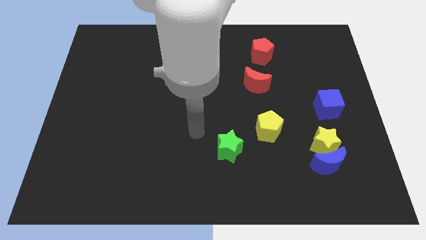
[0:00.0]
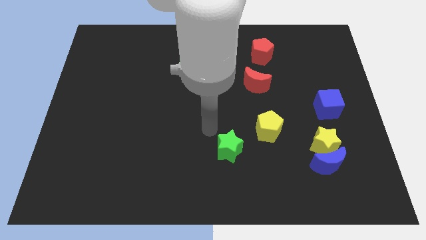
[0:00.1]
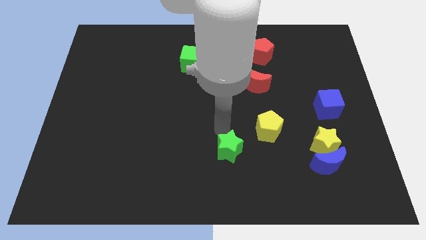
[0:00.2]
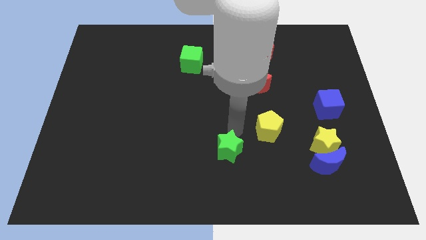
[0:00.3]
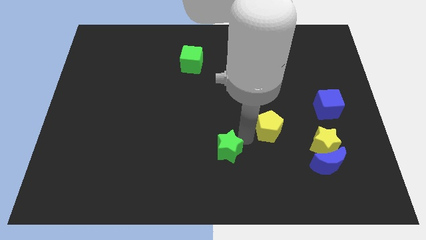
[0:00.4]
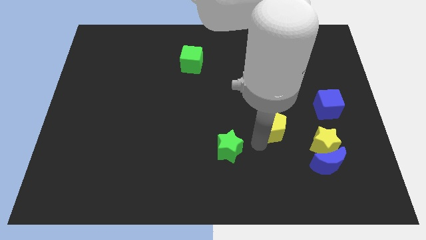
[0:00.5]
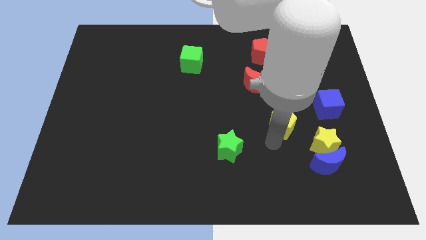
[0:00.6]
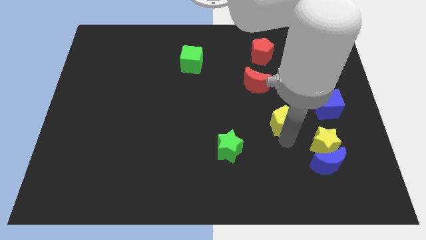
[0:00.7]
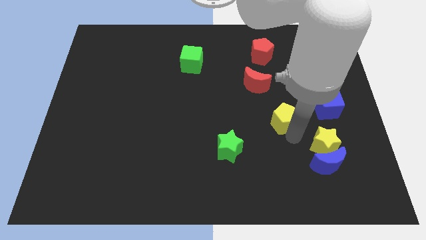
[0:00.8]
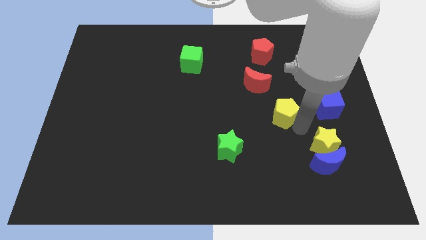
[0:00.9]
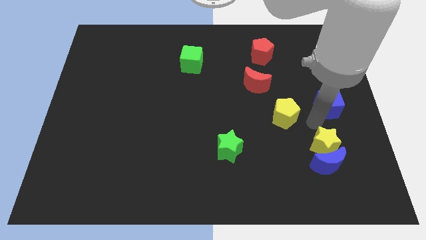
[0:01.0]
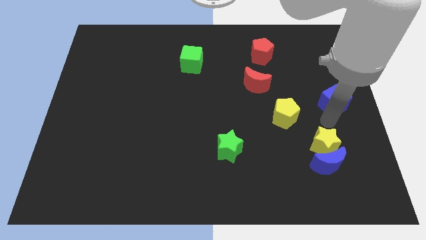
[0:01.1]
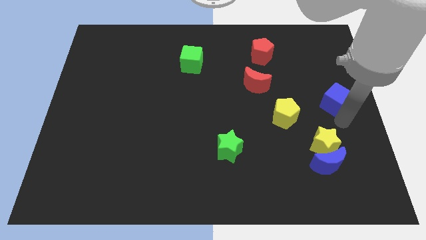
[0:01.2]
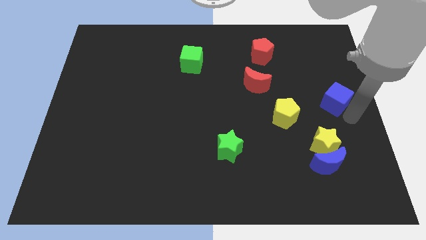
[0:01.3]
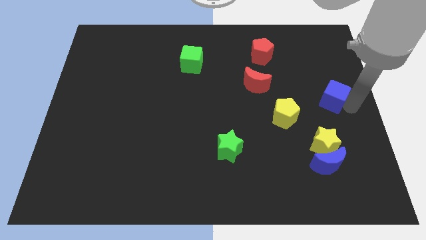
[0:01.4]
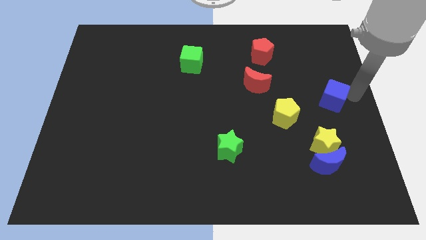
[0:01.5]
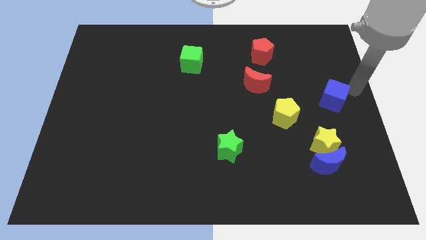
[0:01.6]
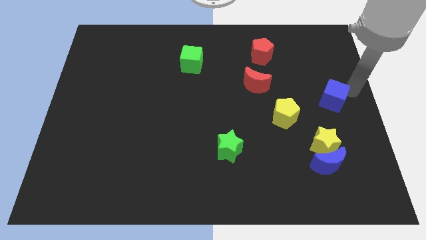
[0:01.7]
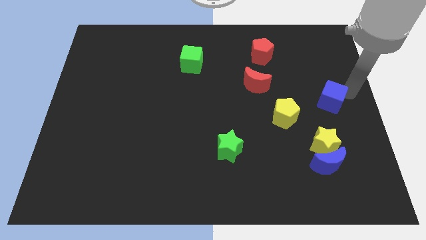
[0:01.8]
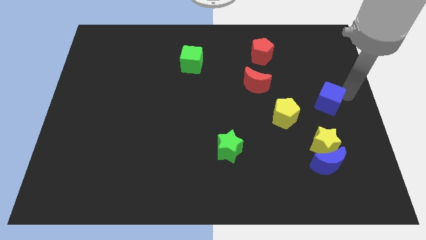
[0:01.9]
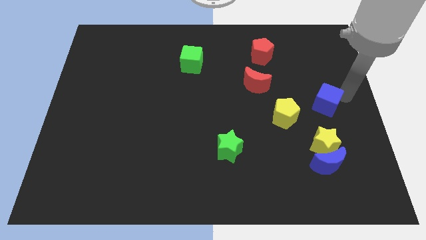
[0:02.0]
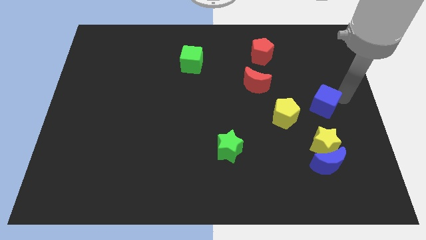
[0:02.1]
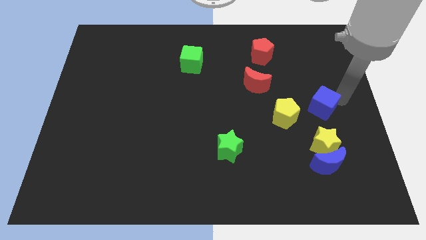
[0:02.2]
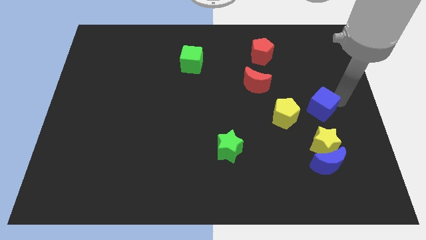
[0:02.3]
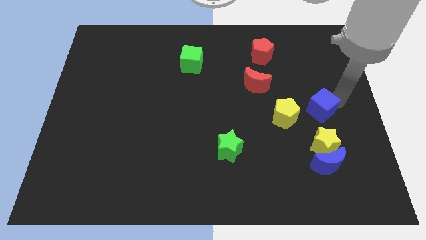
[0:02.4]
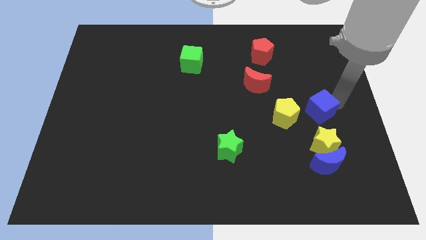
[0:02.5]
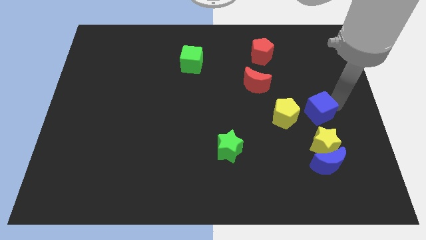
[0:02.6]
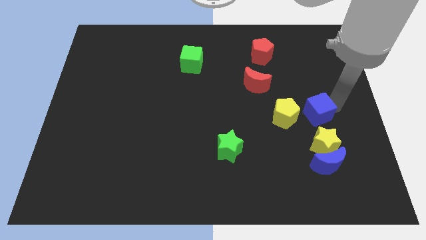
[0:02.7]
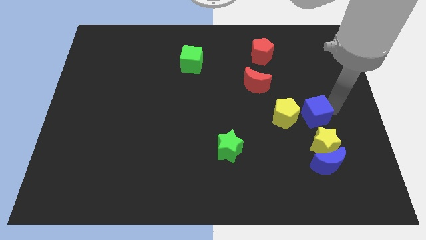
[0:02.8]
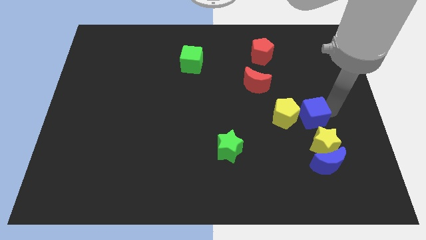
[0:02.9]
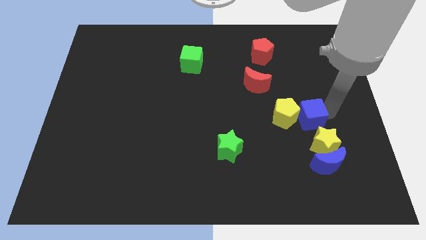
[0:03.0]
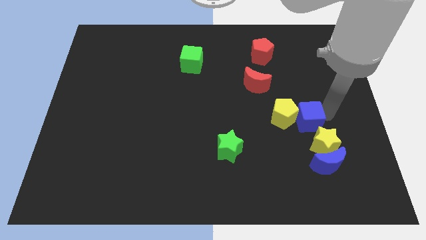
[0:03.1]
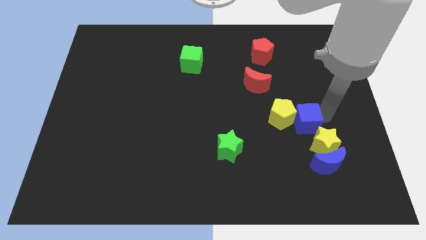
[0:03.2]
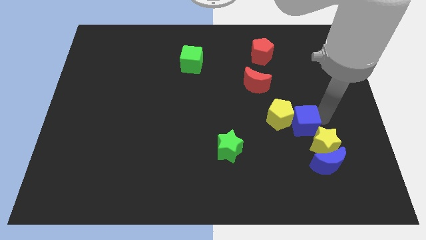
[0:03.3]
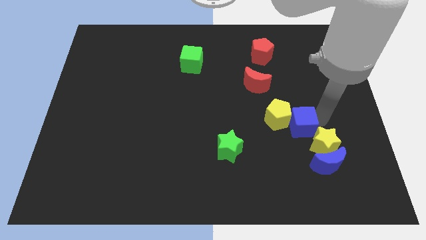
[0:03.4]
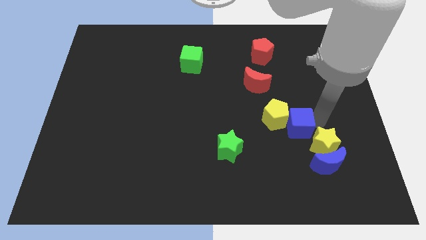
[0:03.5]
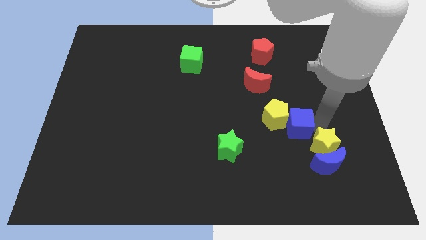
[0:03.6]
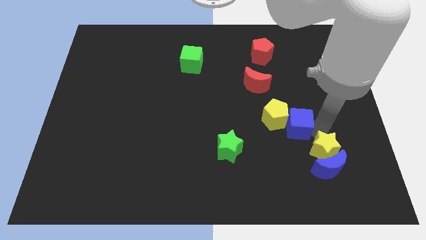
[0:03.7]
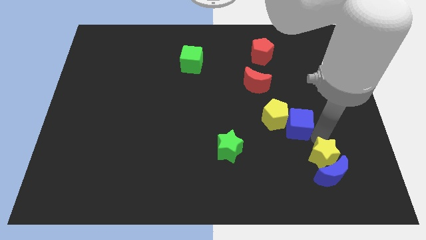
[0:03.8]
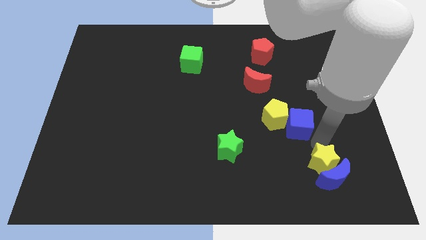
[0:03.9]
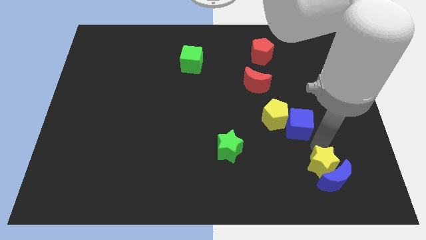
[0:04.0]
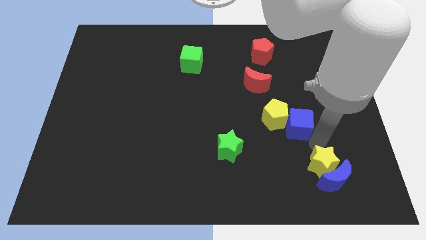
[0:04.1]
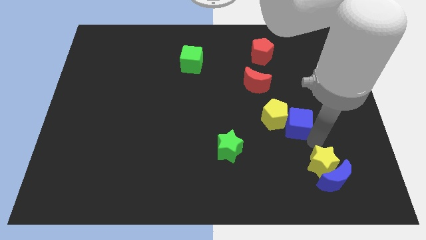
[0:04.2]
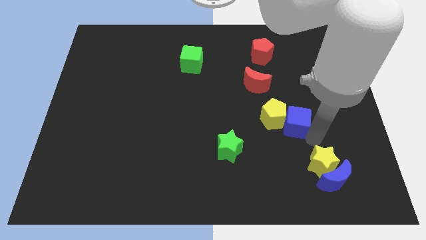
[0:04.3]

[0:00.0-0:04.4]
slide the blue cube slightly to the left

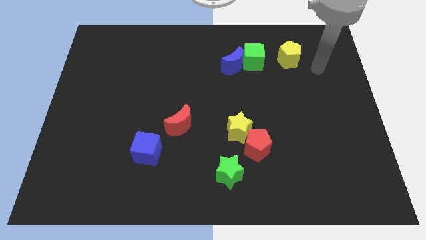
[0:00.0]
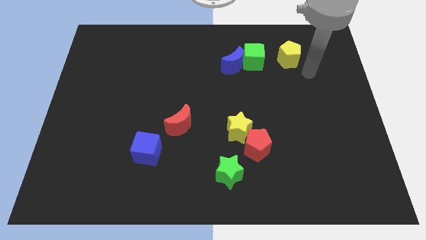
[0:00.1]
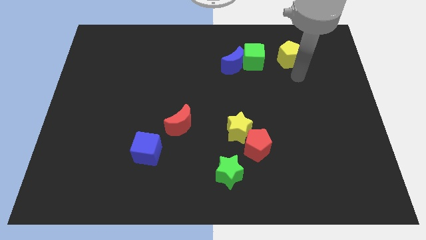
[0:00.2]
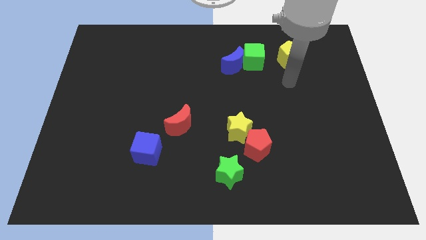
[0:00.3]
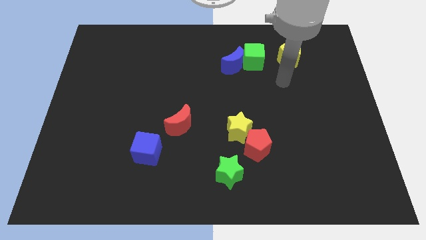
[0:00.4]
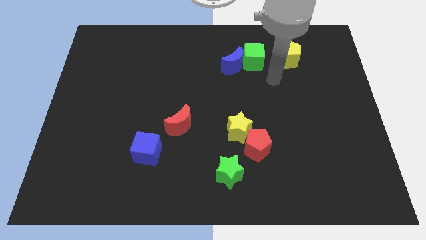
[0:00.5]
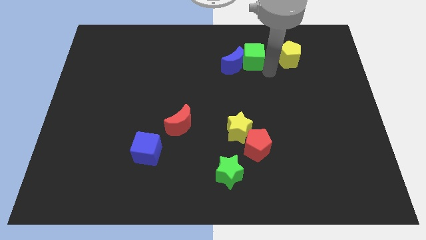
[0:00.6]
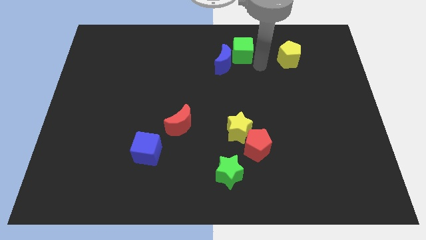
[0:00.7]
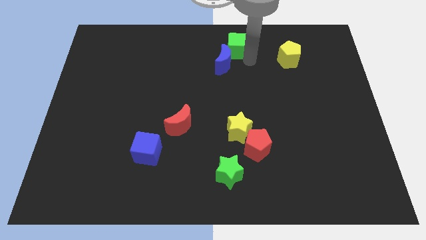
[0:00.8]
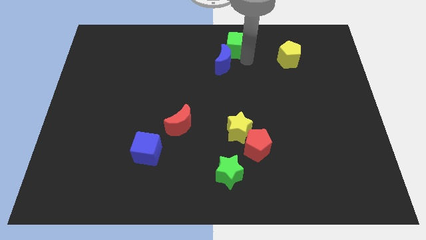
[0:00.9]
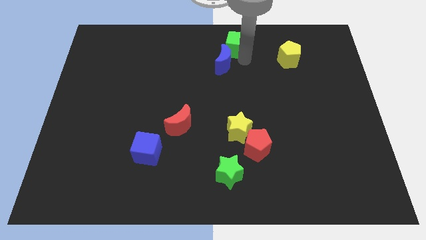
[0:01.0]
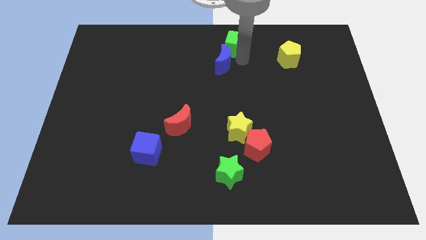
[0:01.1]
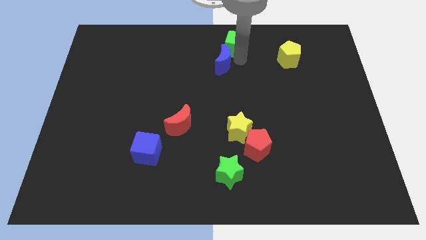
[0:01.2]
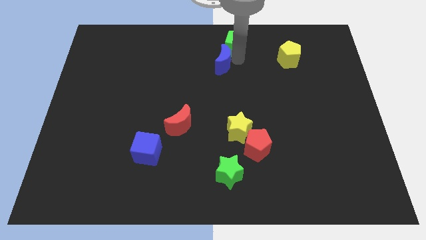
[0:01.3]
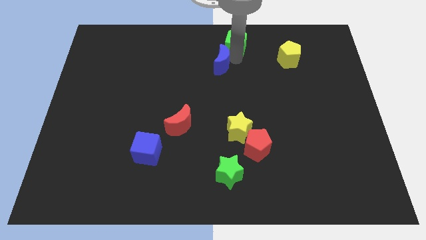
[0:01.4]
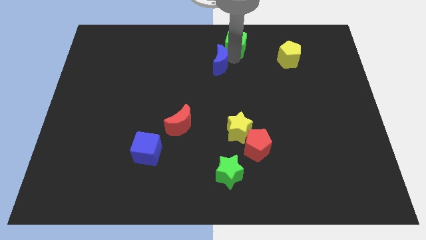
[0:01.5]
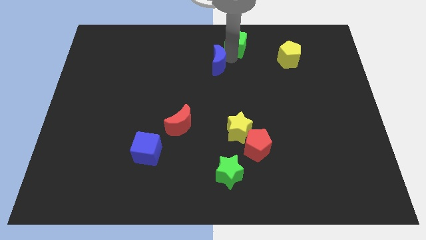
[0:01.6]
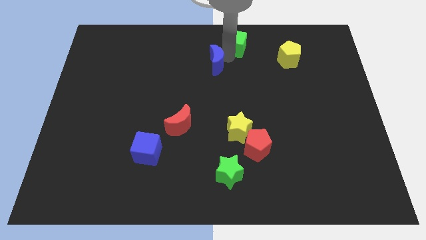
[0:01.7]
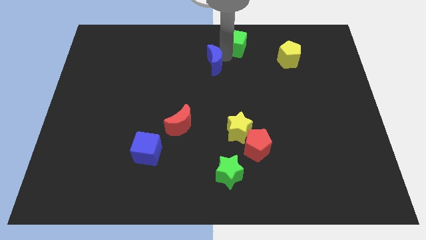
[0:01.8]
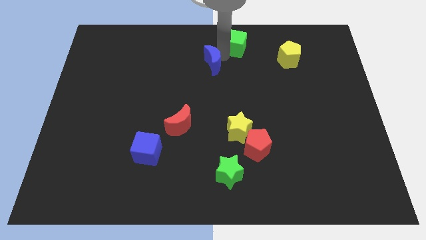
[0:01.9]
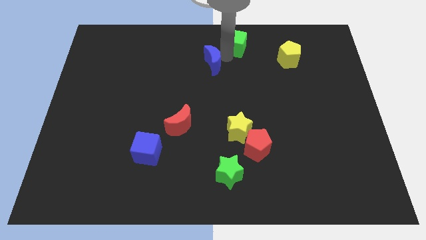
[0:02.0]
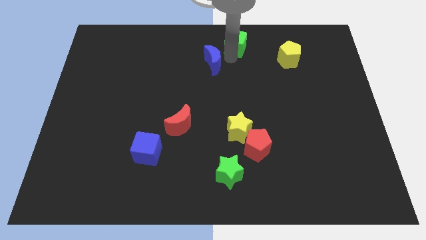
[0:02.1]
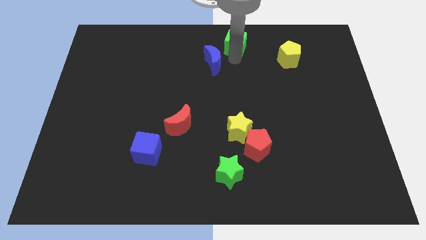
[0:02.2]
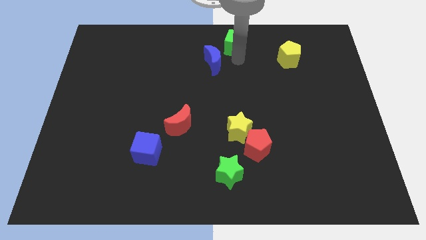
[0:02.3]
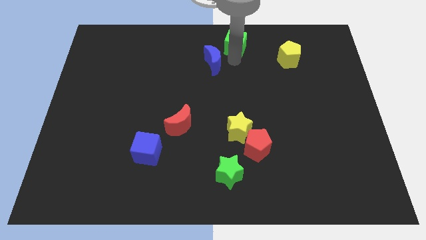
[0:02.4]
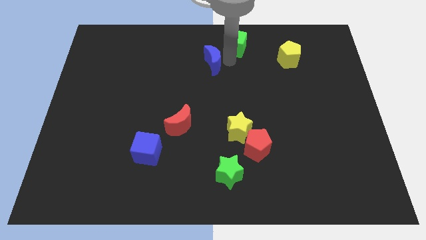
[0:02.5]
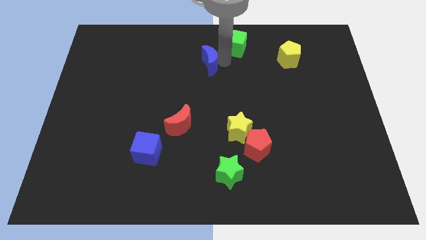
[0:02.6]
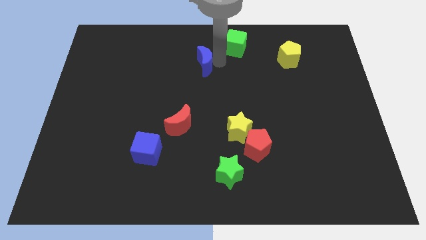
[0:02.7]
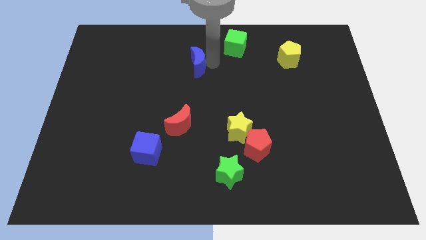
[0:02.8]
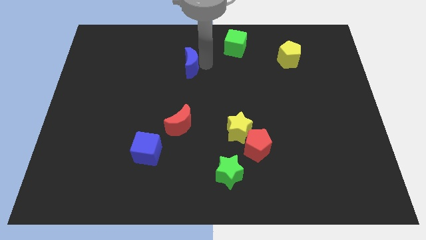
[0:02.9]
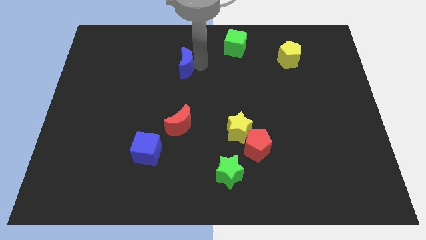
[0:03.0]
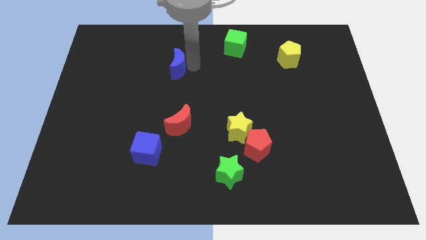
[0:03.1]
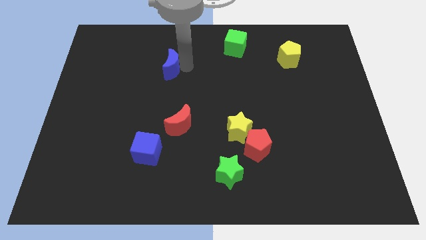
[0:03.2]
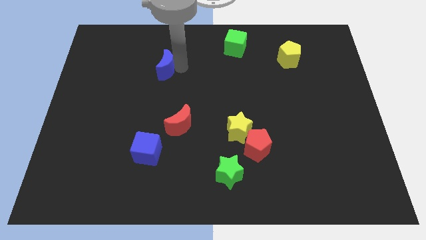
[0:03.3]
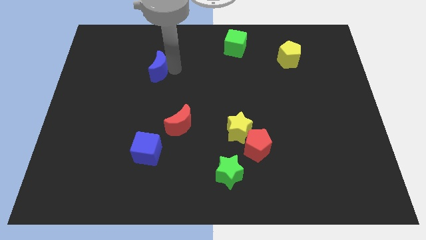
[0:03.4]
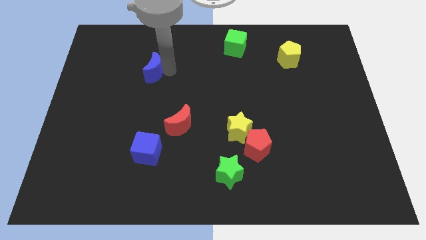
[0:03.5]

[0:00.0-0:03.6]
slide the blue moon left
